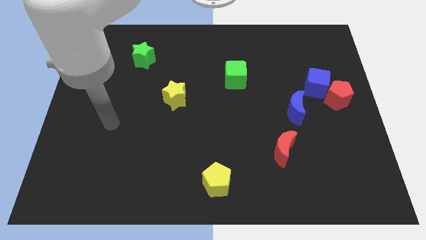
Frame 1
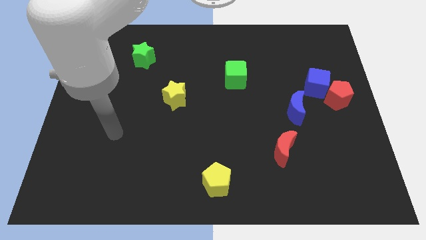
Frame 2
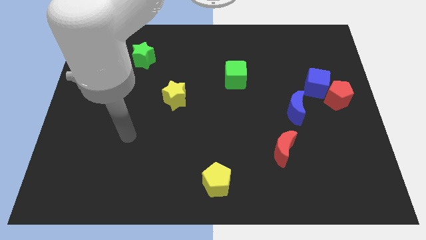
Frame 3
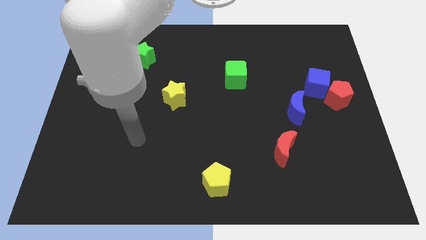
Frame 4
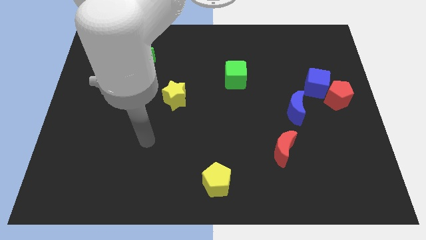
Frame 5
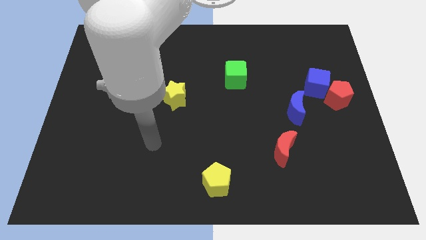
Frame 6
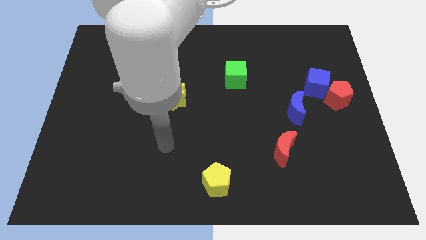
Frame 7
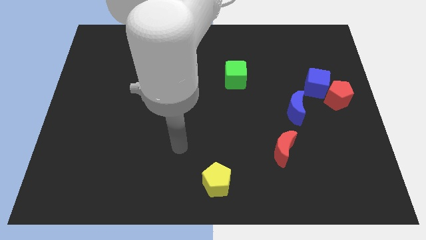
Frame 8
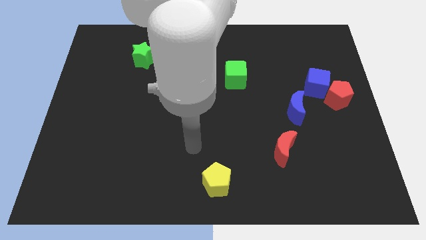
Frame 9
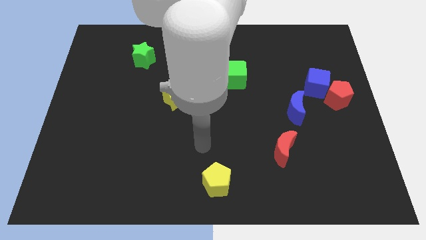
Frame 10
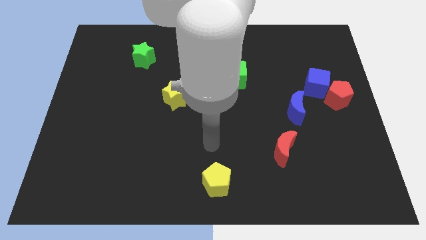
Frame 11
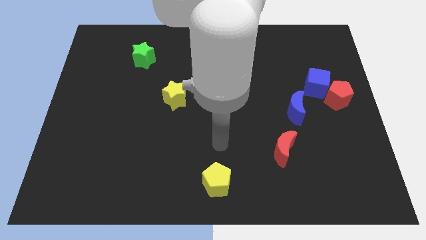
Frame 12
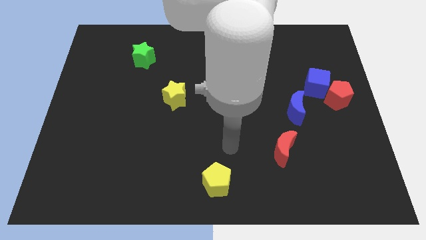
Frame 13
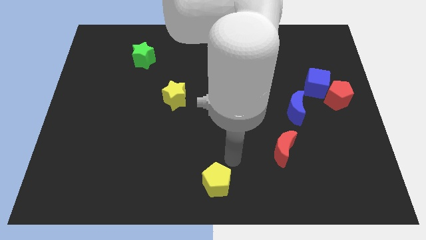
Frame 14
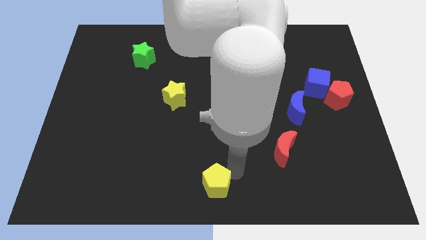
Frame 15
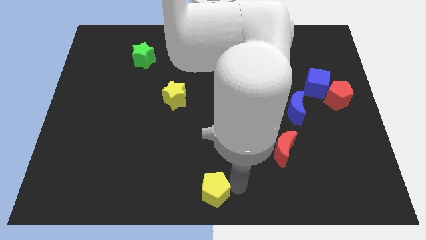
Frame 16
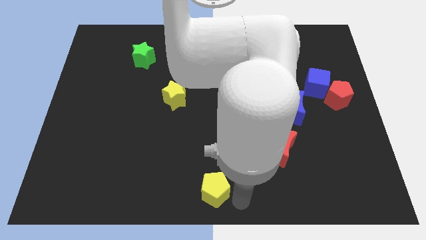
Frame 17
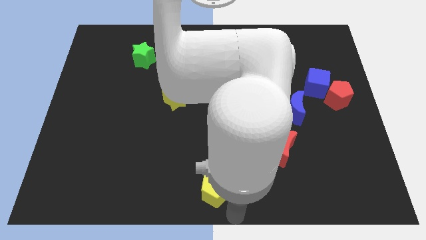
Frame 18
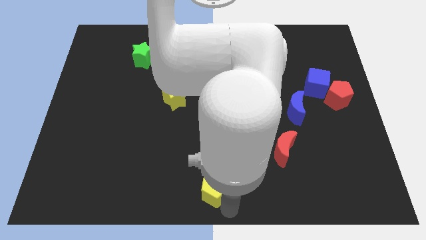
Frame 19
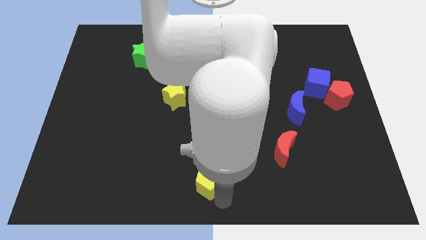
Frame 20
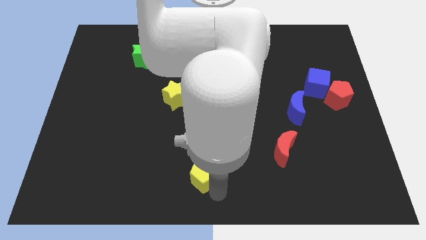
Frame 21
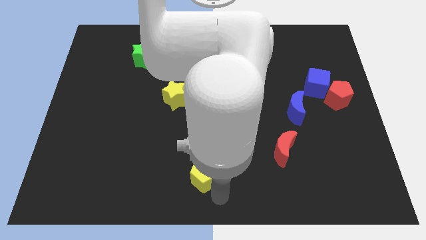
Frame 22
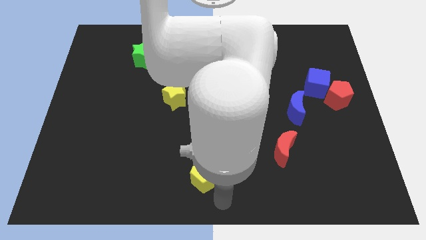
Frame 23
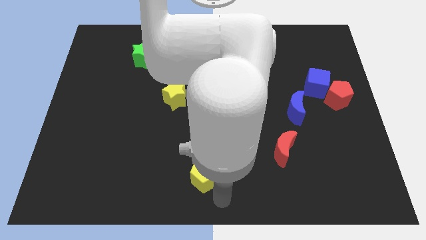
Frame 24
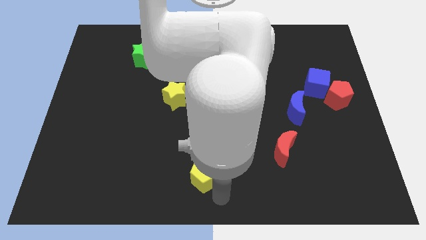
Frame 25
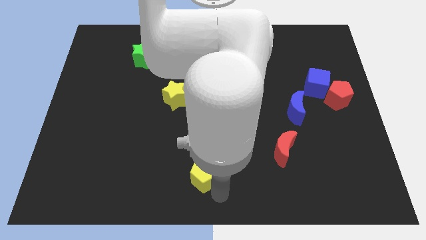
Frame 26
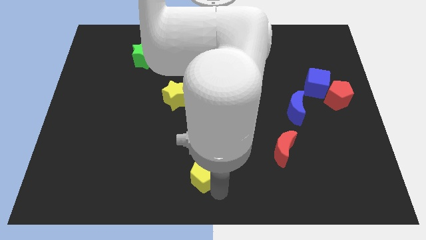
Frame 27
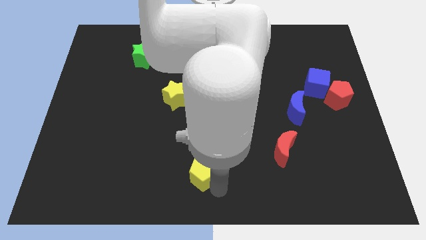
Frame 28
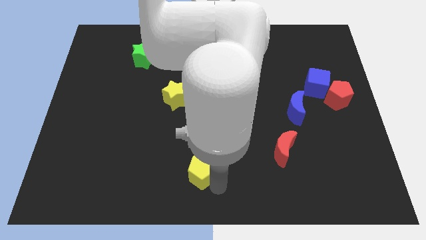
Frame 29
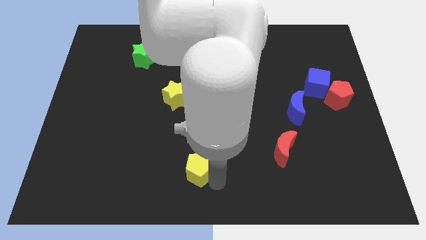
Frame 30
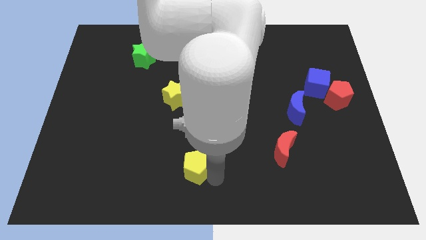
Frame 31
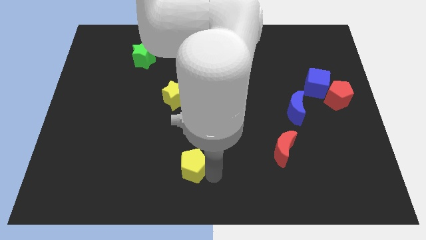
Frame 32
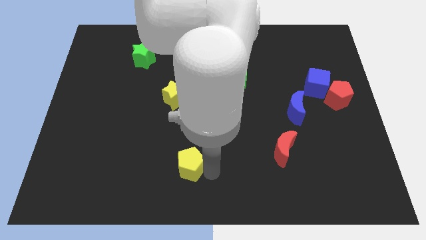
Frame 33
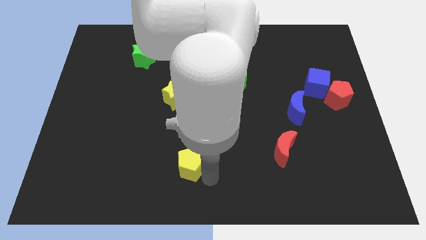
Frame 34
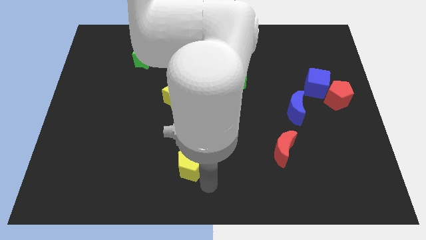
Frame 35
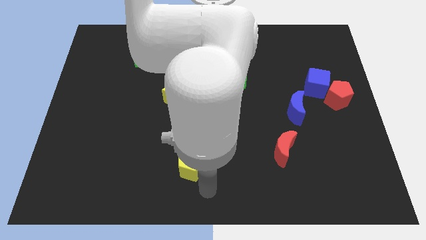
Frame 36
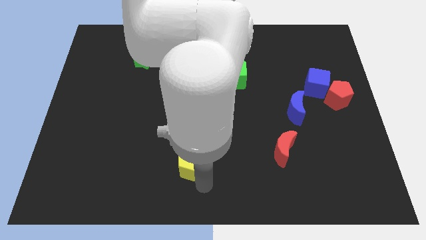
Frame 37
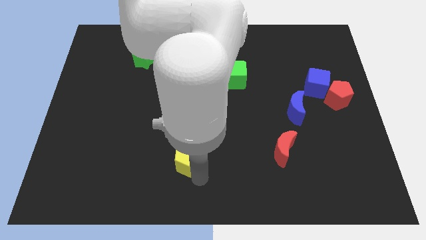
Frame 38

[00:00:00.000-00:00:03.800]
slightly slide the yellow pentagon diagonally up and to the left

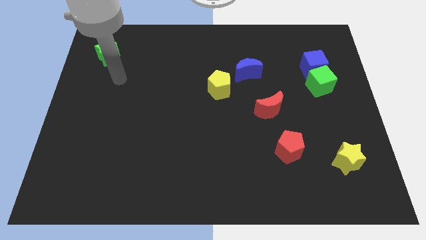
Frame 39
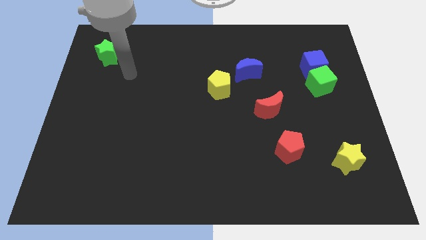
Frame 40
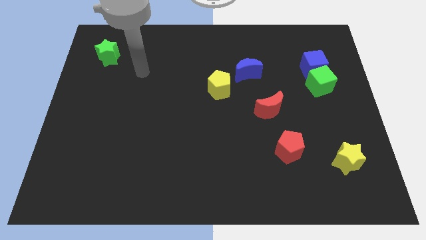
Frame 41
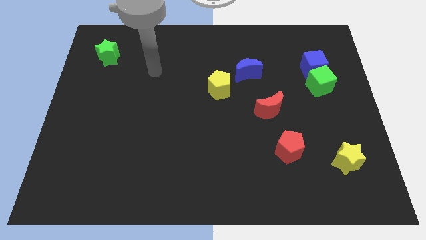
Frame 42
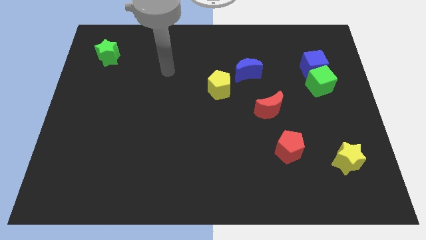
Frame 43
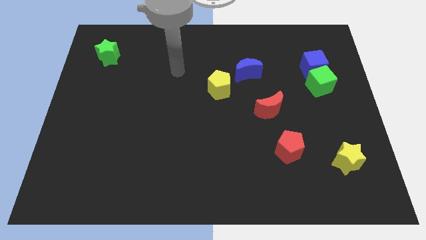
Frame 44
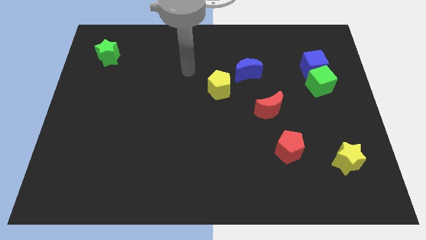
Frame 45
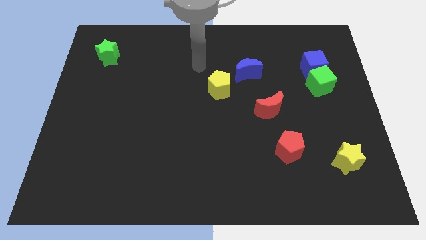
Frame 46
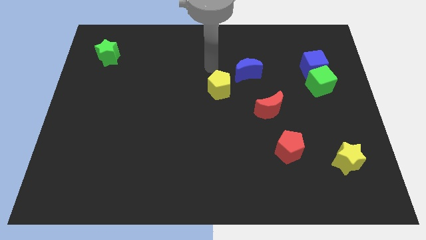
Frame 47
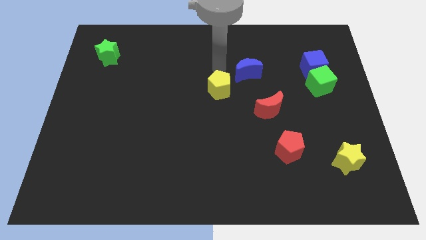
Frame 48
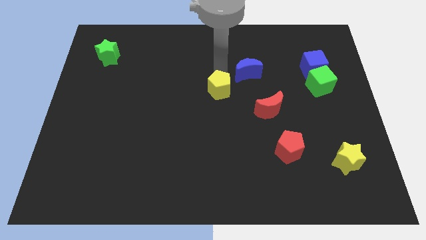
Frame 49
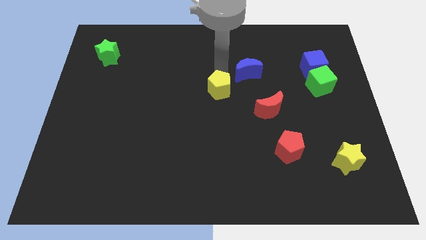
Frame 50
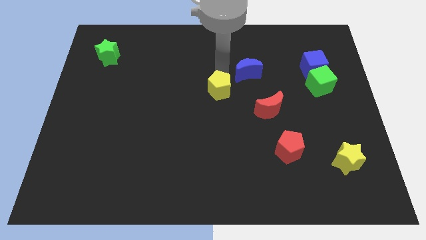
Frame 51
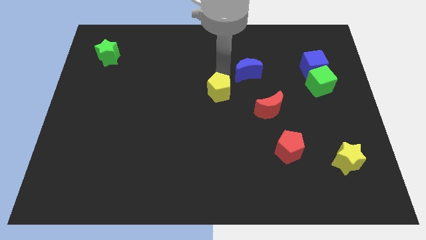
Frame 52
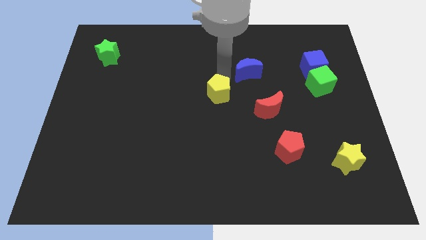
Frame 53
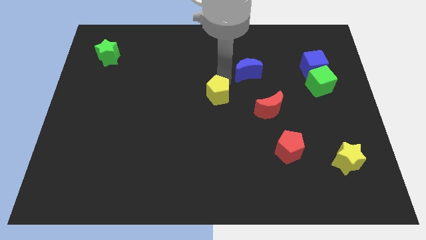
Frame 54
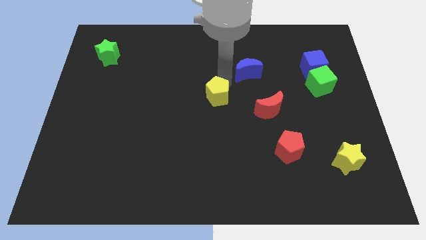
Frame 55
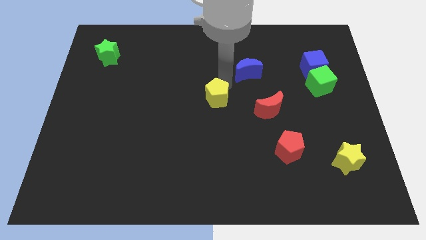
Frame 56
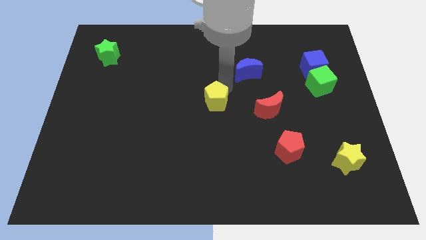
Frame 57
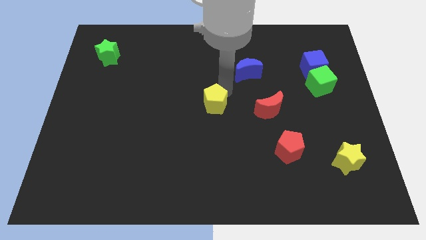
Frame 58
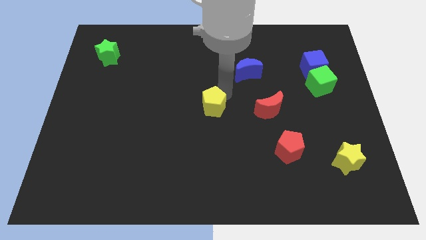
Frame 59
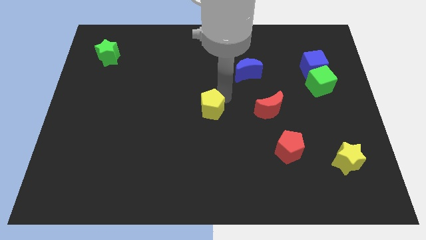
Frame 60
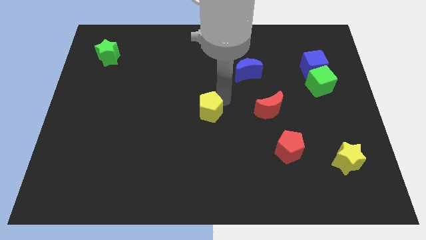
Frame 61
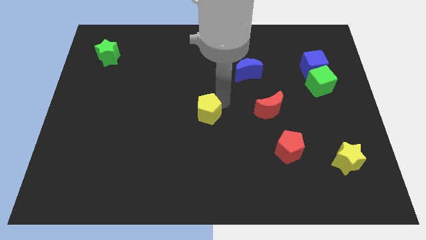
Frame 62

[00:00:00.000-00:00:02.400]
slightly push the yellow pentagon downwards

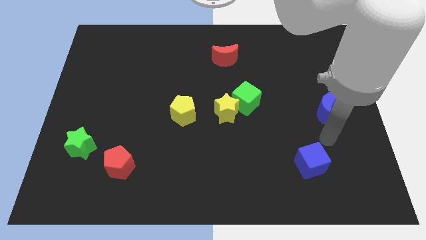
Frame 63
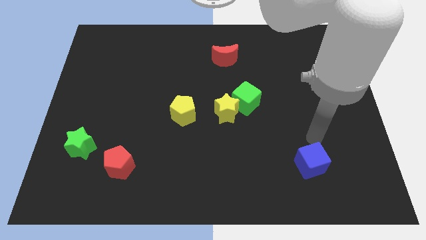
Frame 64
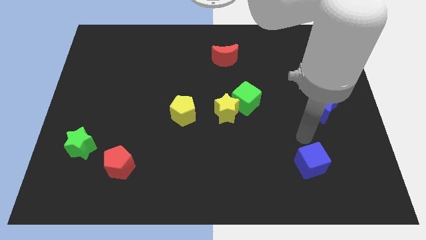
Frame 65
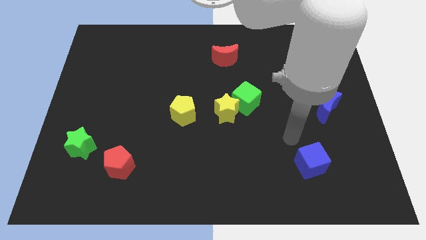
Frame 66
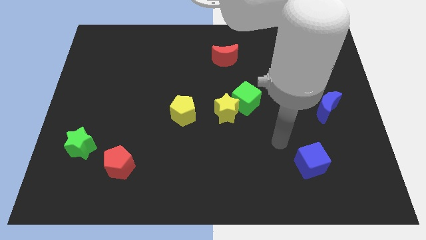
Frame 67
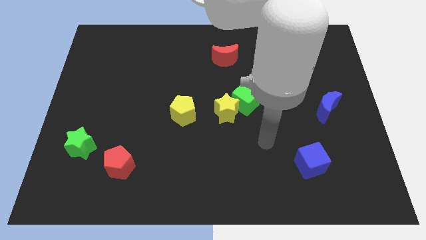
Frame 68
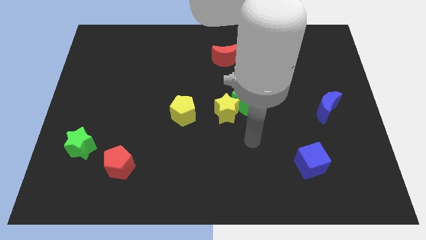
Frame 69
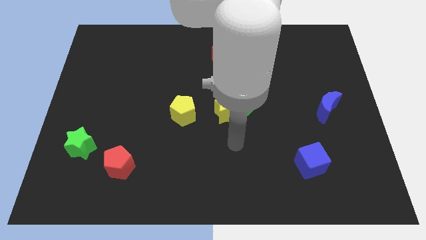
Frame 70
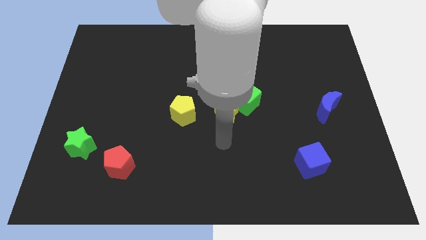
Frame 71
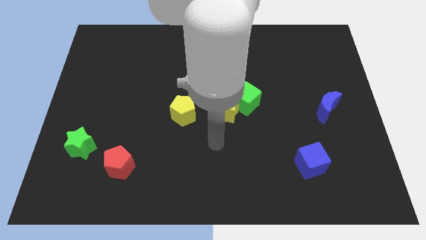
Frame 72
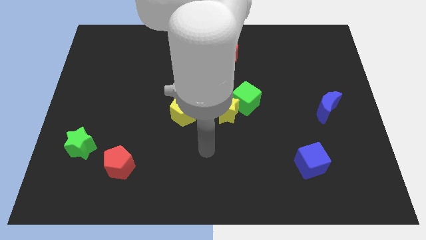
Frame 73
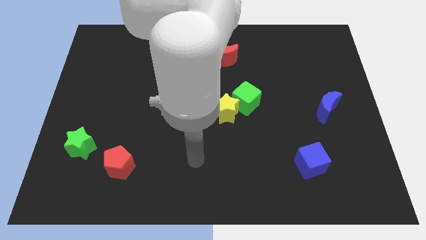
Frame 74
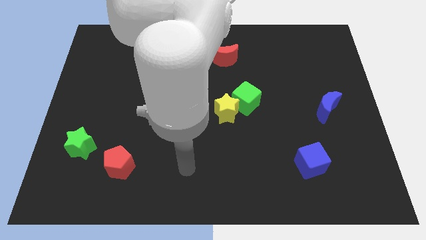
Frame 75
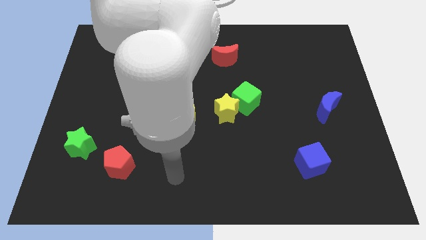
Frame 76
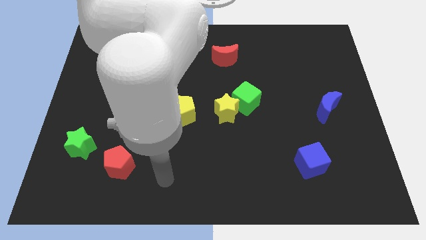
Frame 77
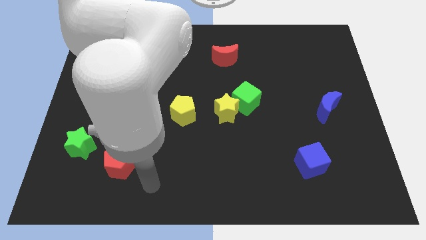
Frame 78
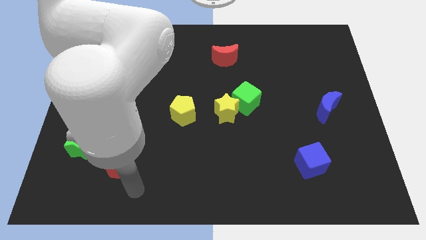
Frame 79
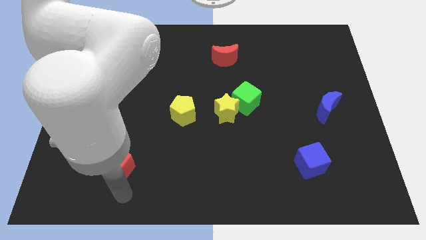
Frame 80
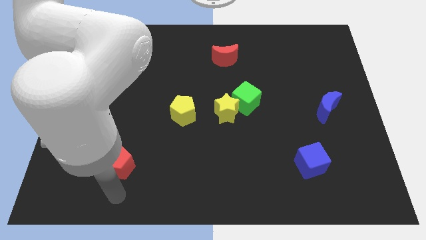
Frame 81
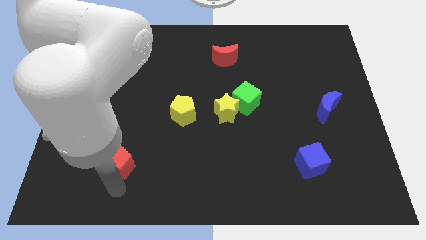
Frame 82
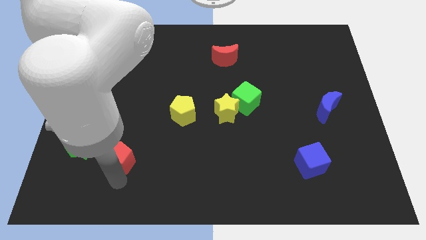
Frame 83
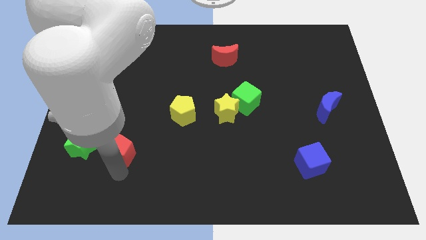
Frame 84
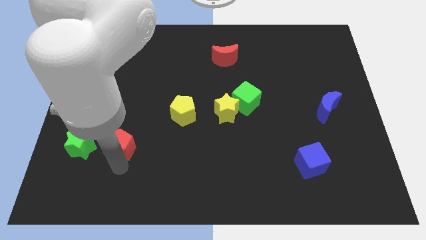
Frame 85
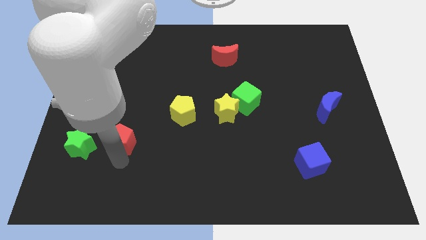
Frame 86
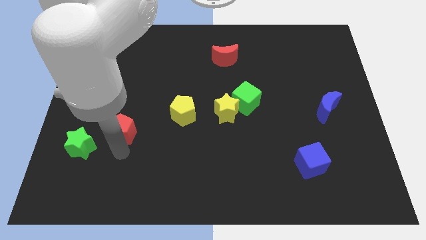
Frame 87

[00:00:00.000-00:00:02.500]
slightly push the red pentagon up
